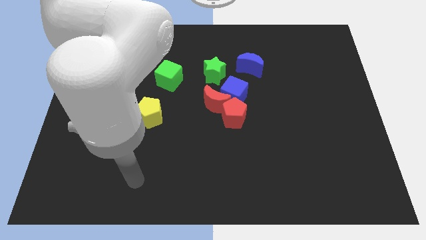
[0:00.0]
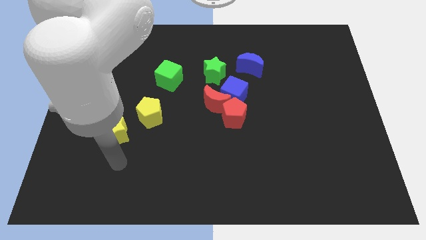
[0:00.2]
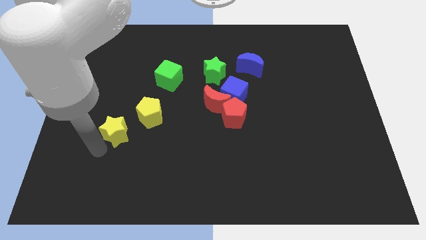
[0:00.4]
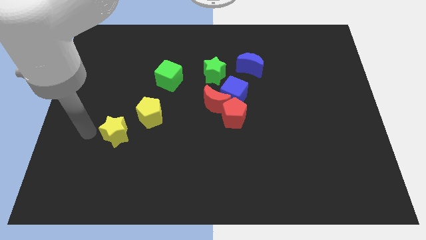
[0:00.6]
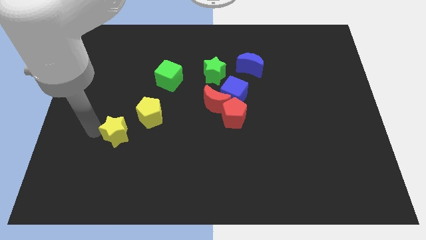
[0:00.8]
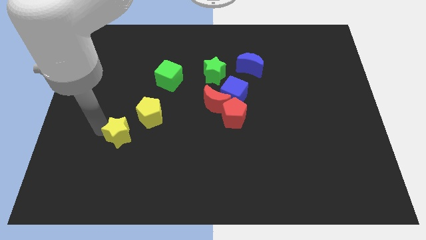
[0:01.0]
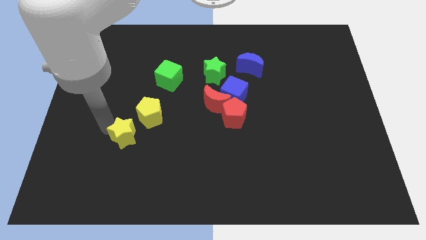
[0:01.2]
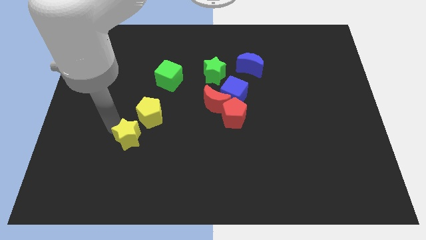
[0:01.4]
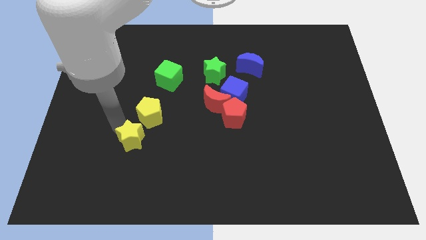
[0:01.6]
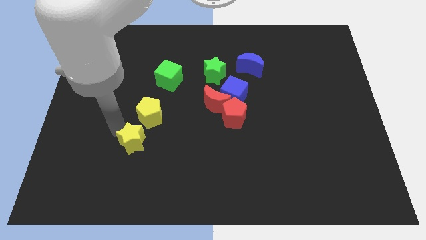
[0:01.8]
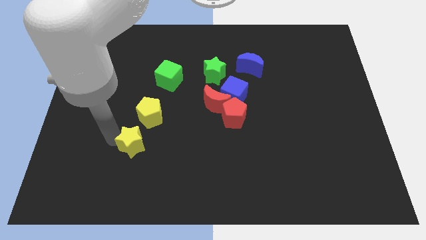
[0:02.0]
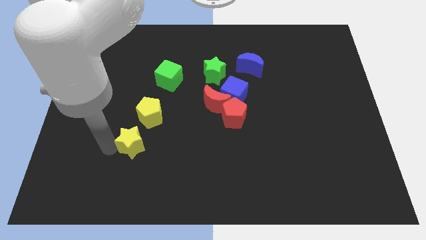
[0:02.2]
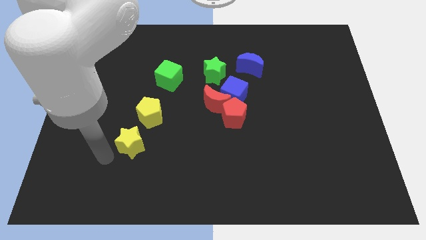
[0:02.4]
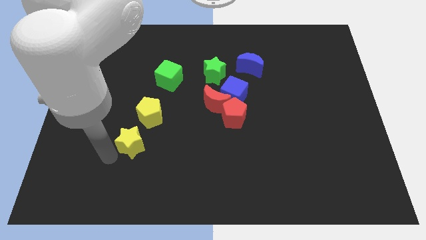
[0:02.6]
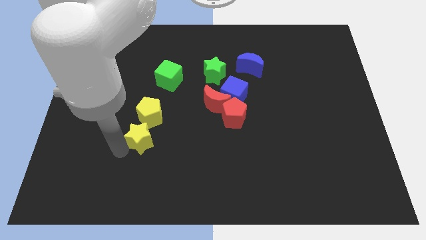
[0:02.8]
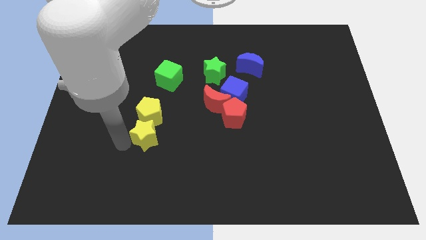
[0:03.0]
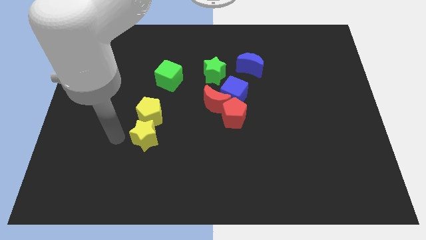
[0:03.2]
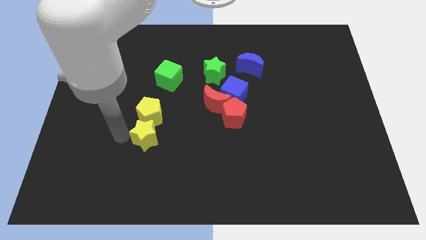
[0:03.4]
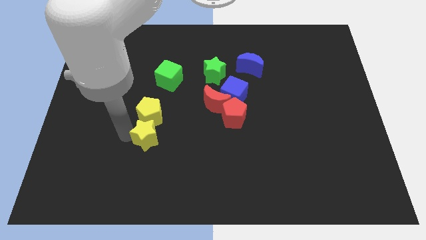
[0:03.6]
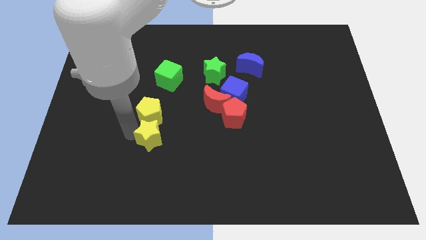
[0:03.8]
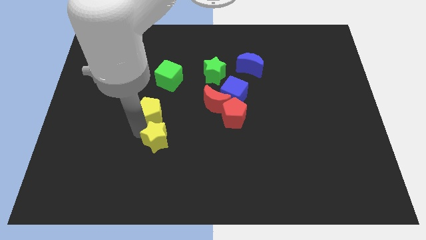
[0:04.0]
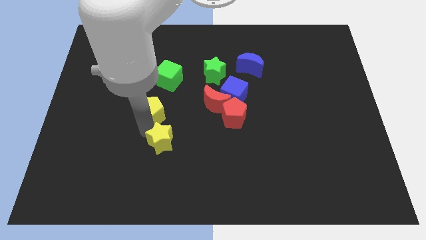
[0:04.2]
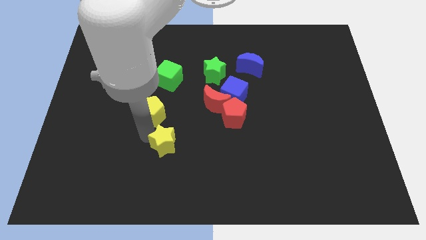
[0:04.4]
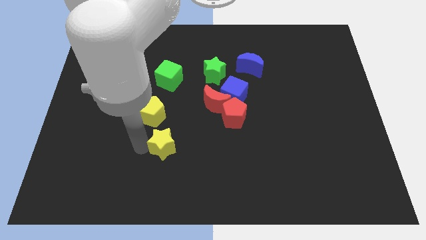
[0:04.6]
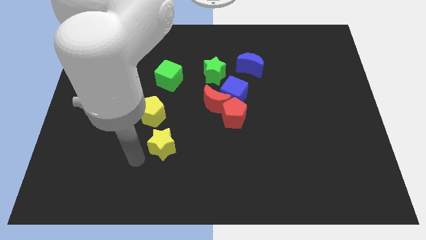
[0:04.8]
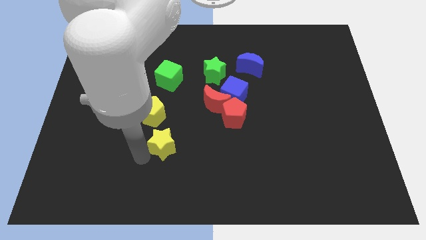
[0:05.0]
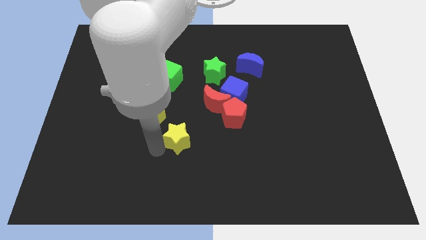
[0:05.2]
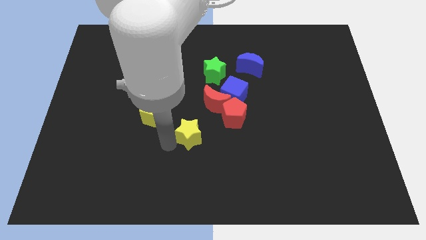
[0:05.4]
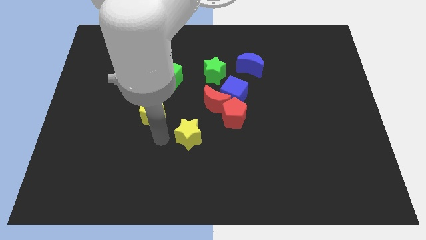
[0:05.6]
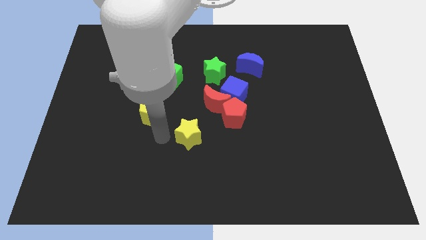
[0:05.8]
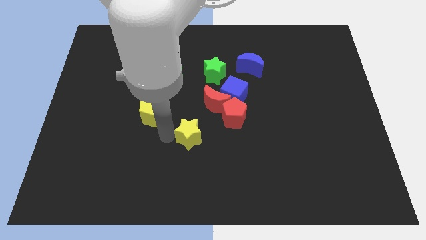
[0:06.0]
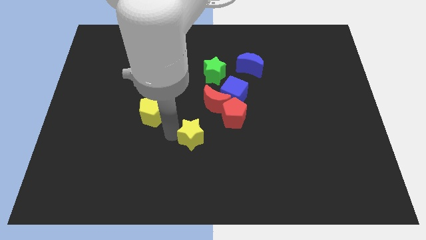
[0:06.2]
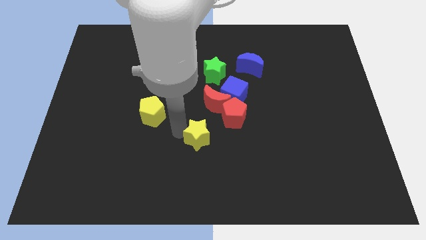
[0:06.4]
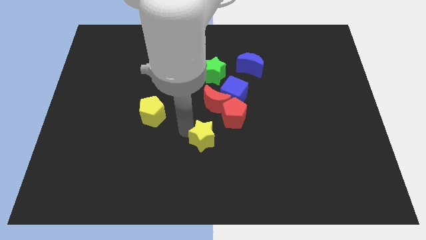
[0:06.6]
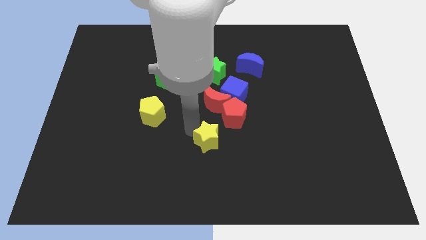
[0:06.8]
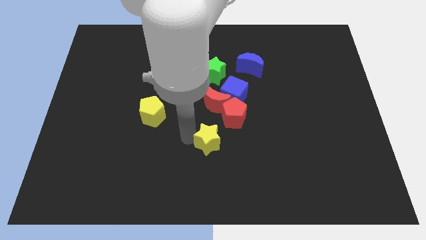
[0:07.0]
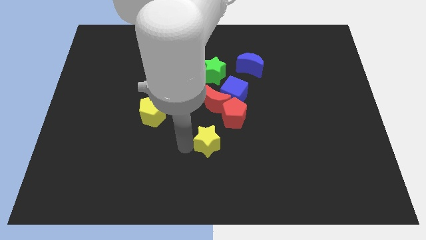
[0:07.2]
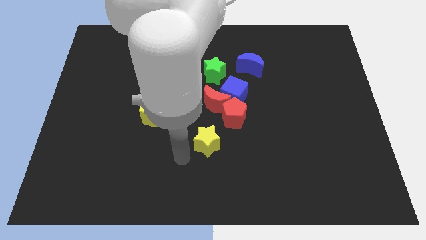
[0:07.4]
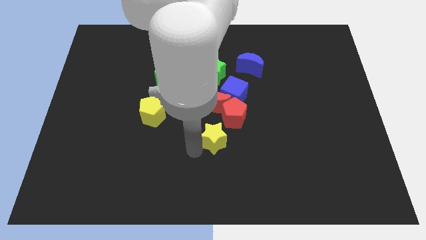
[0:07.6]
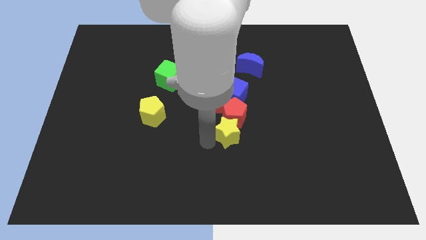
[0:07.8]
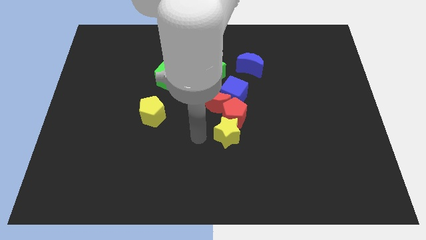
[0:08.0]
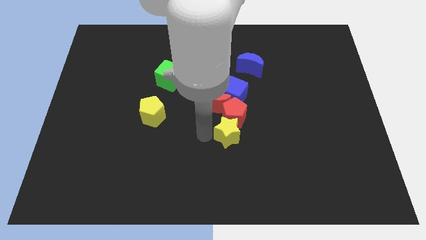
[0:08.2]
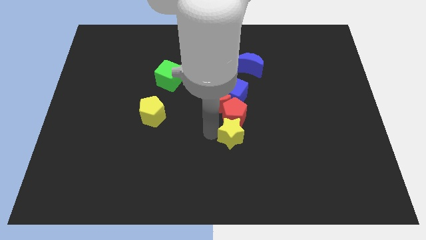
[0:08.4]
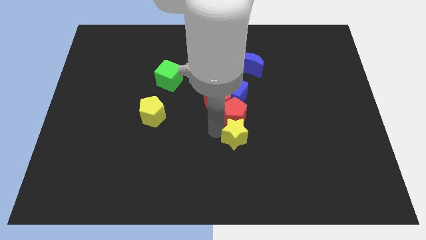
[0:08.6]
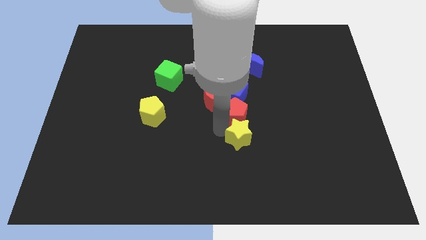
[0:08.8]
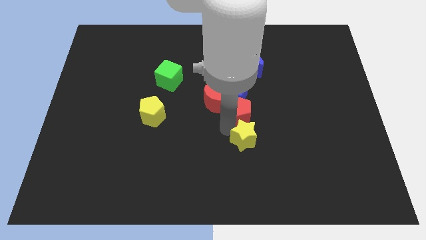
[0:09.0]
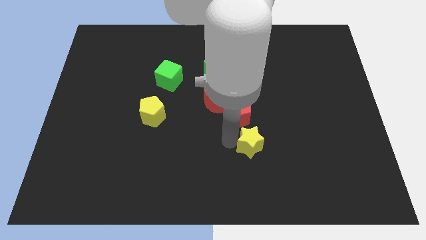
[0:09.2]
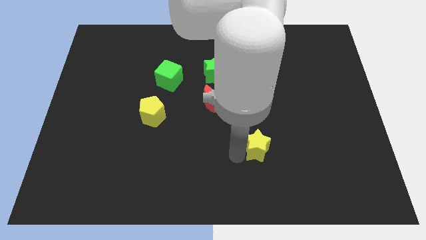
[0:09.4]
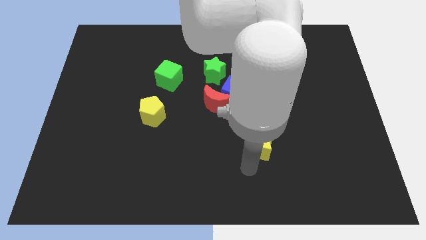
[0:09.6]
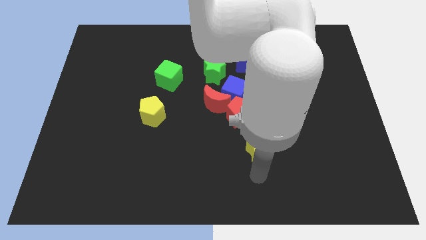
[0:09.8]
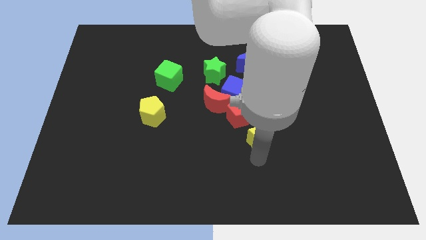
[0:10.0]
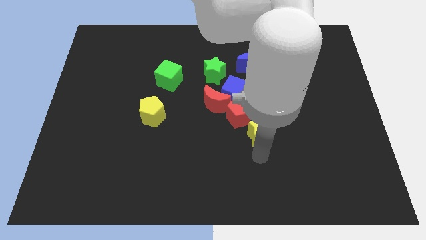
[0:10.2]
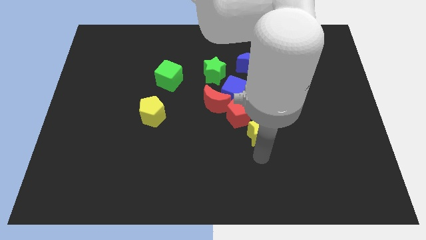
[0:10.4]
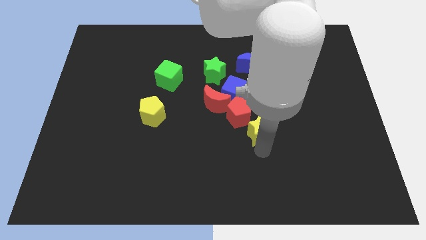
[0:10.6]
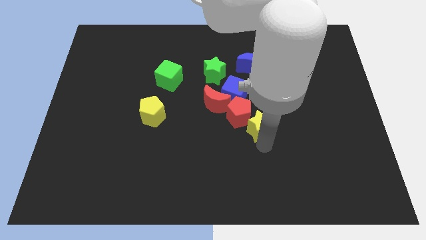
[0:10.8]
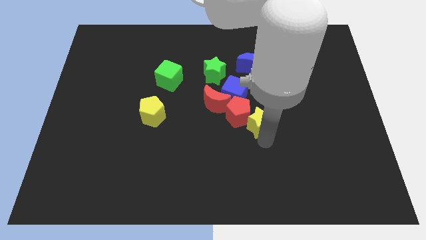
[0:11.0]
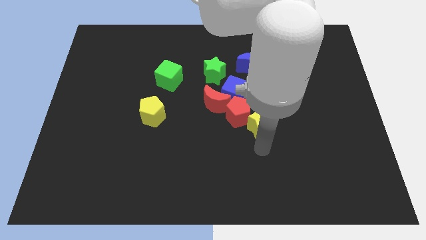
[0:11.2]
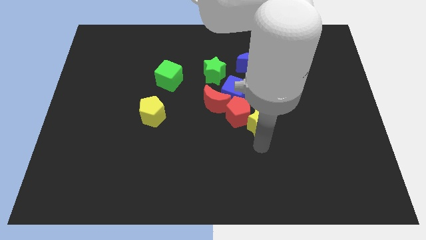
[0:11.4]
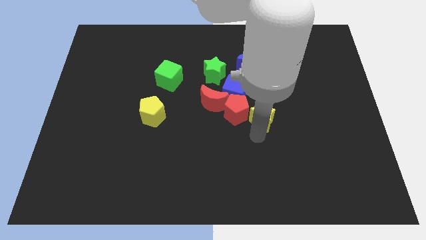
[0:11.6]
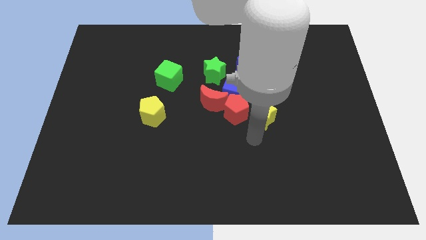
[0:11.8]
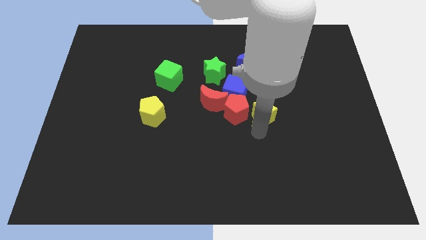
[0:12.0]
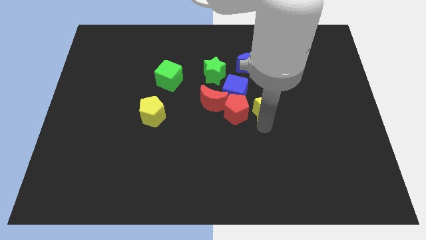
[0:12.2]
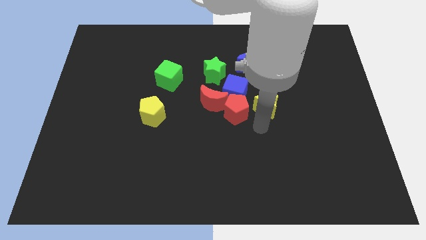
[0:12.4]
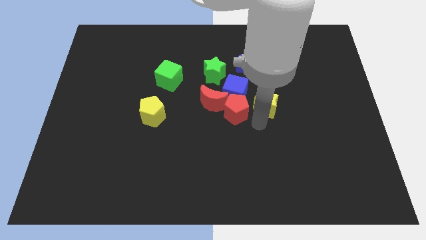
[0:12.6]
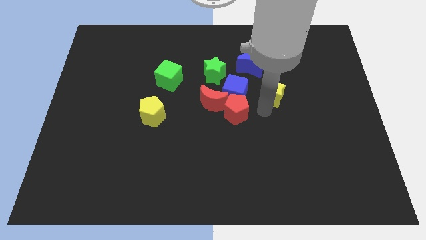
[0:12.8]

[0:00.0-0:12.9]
move the yellow star to the bottom right of the blue moon
